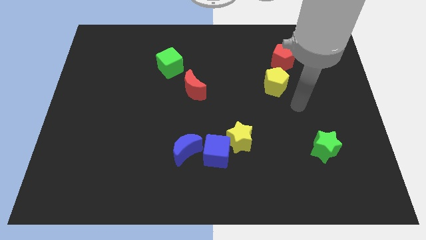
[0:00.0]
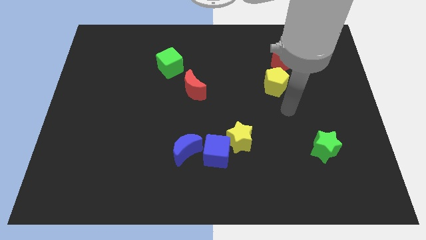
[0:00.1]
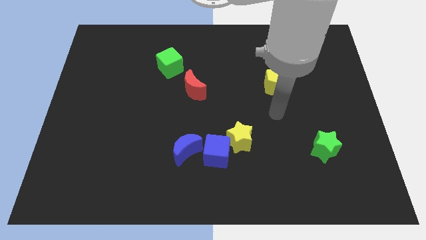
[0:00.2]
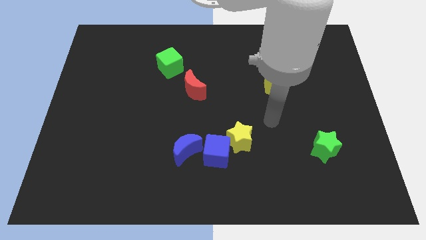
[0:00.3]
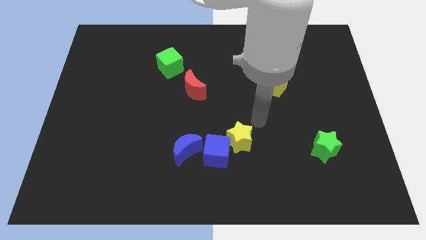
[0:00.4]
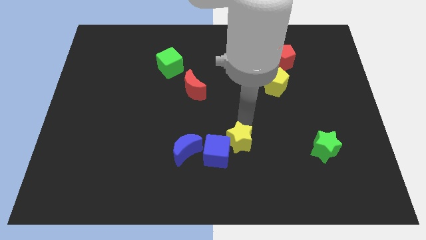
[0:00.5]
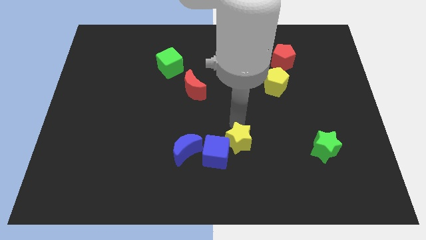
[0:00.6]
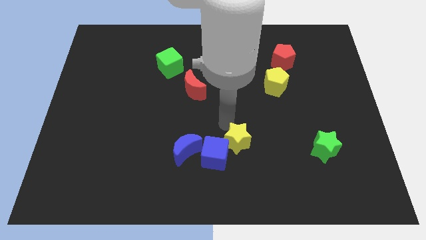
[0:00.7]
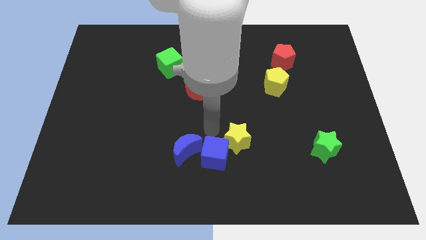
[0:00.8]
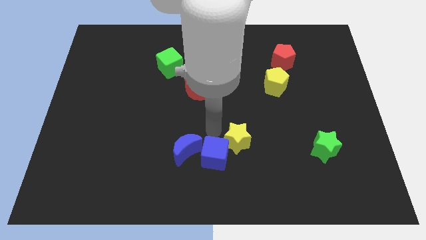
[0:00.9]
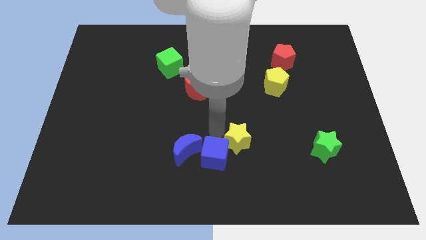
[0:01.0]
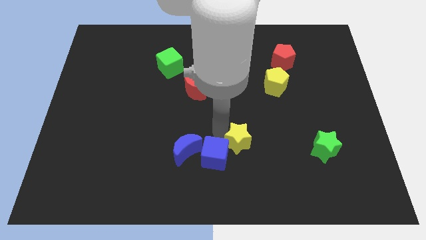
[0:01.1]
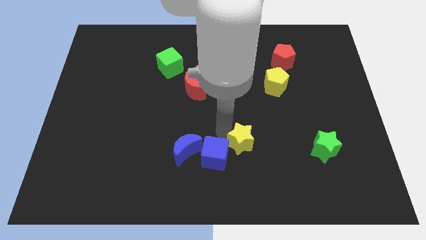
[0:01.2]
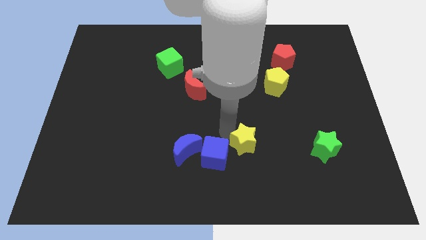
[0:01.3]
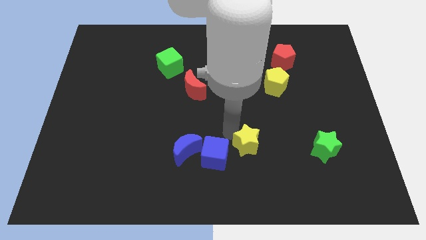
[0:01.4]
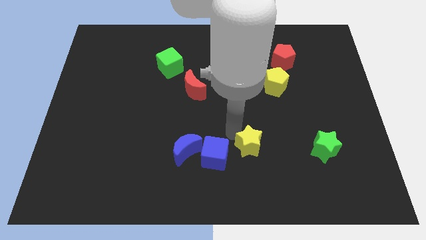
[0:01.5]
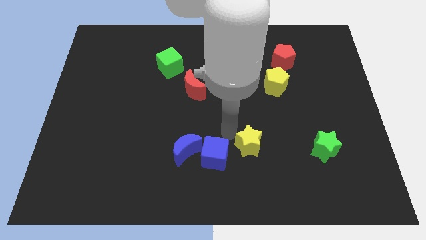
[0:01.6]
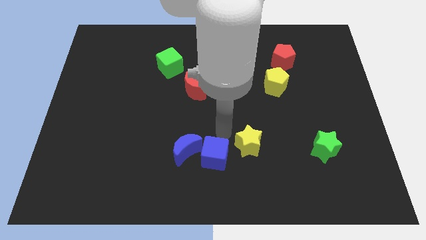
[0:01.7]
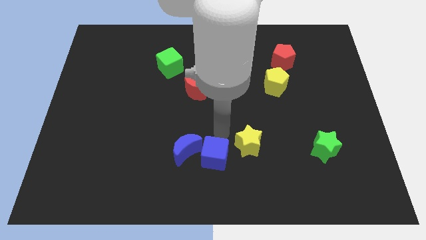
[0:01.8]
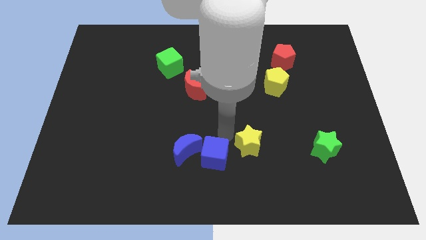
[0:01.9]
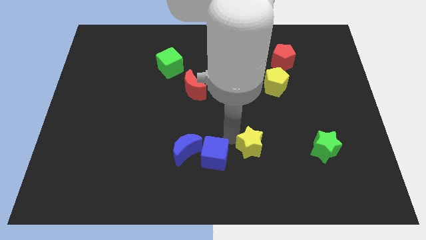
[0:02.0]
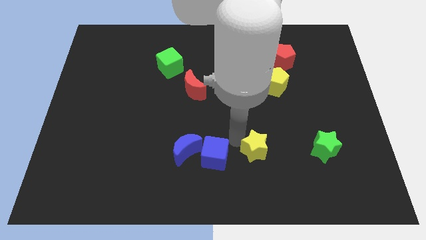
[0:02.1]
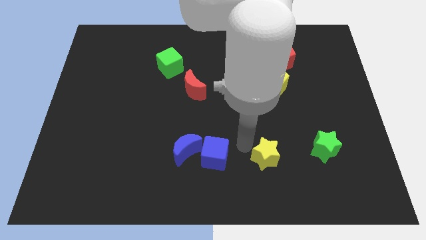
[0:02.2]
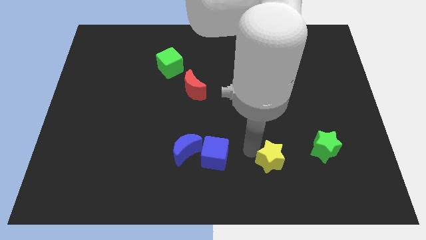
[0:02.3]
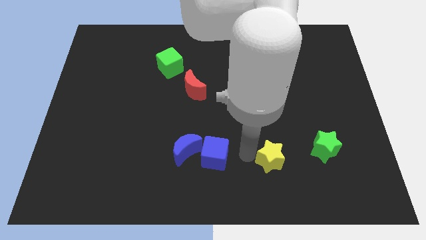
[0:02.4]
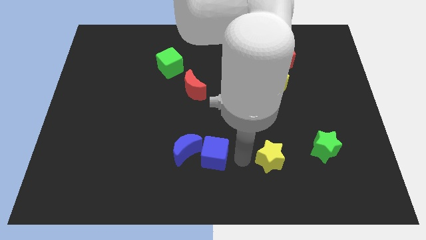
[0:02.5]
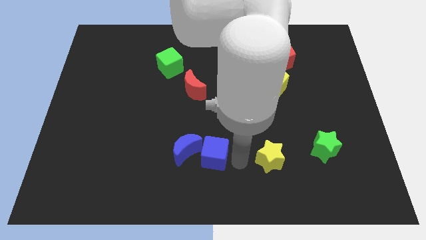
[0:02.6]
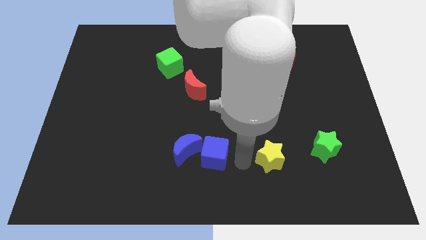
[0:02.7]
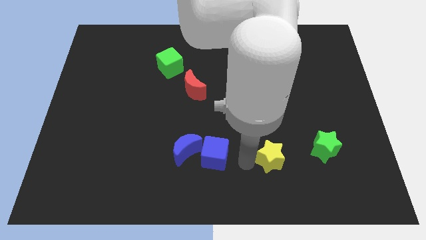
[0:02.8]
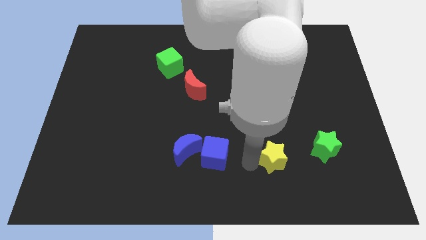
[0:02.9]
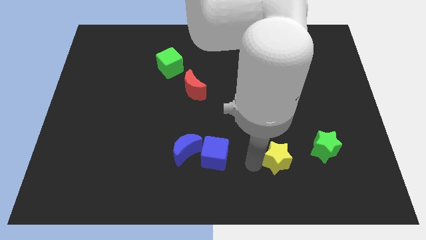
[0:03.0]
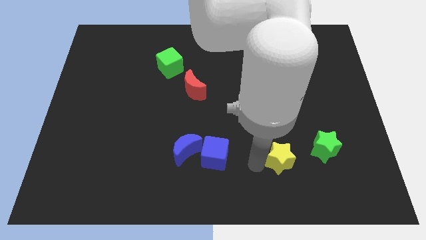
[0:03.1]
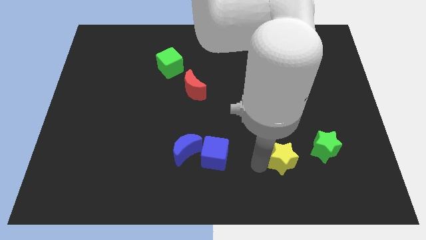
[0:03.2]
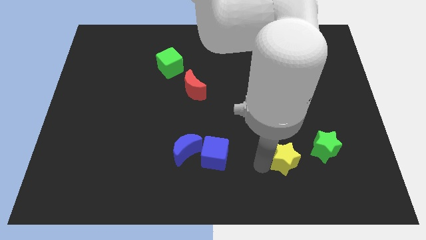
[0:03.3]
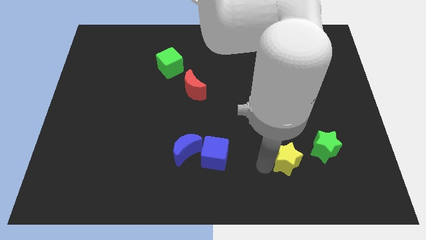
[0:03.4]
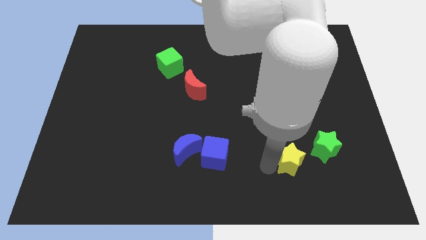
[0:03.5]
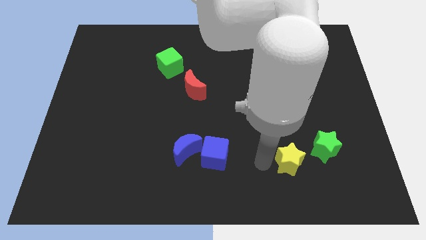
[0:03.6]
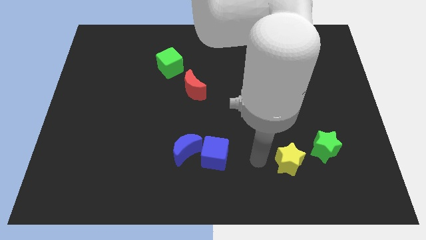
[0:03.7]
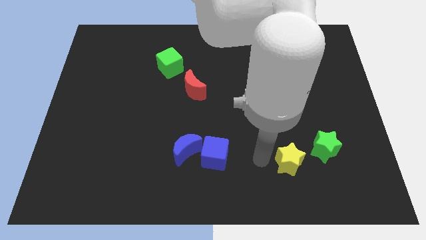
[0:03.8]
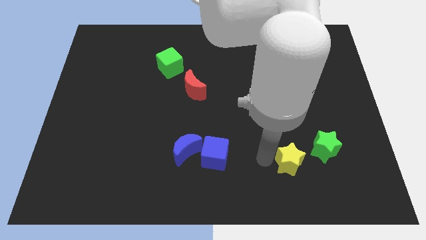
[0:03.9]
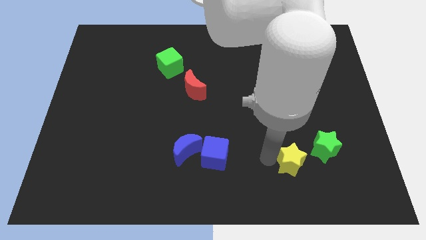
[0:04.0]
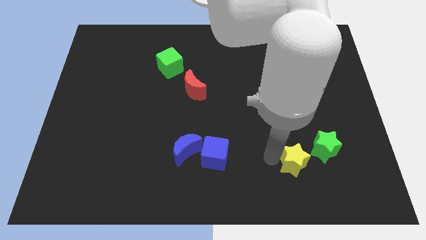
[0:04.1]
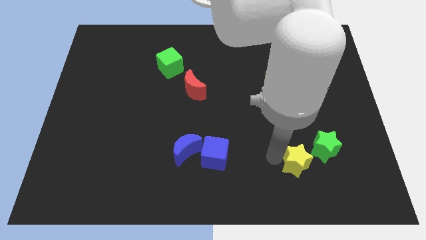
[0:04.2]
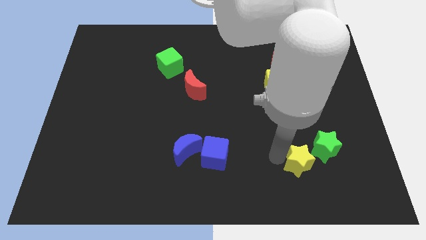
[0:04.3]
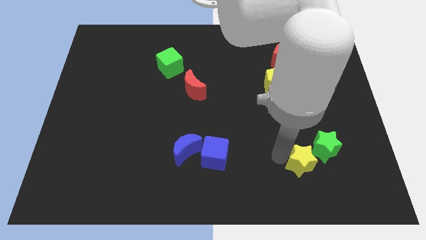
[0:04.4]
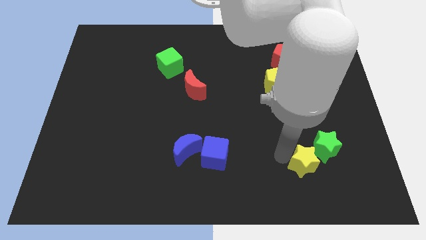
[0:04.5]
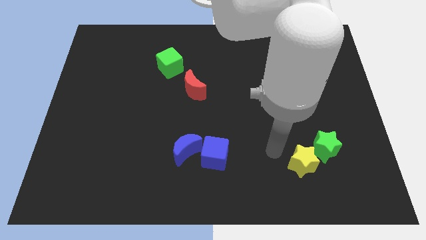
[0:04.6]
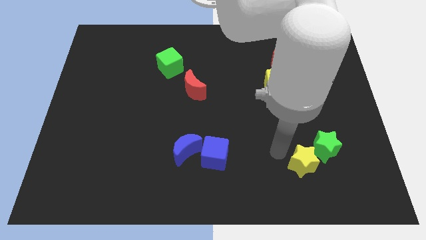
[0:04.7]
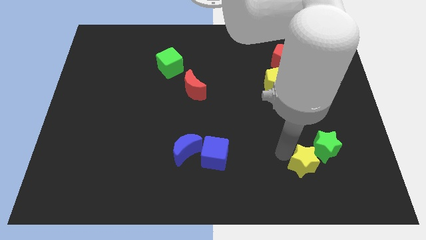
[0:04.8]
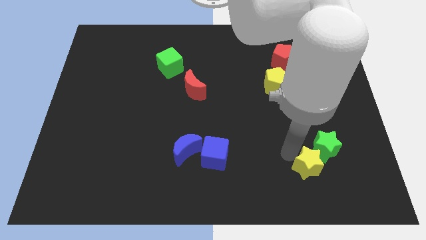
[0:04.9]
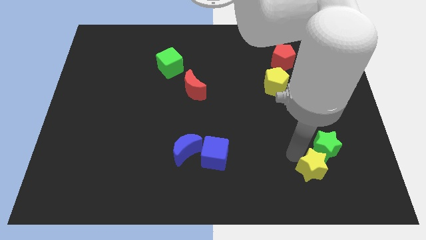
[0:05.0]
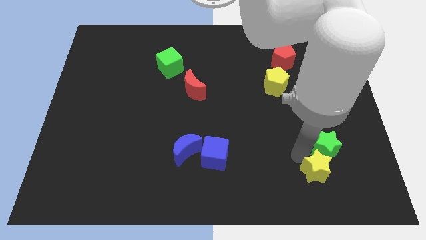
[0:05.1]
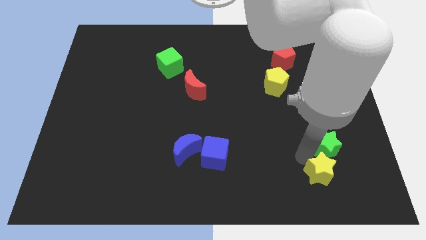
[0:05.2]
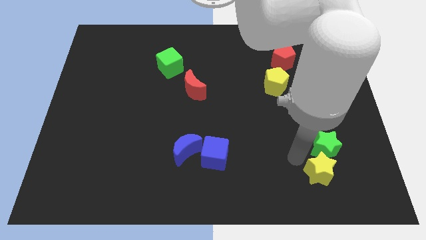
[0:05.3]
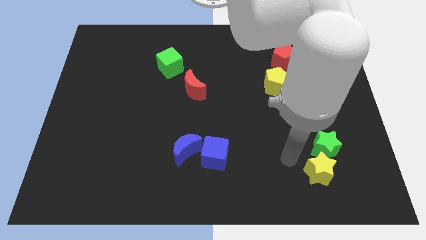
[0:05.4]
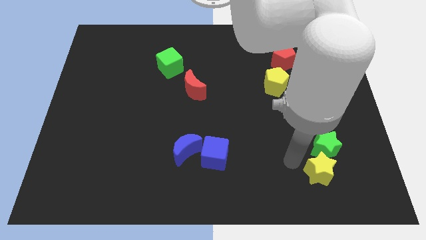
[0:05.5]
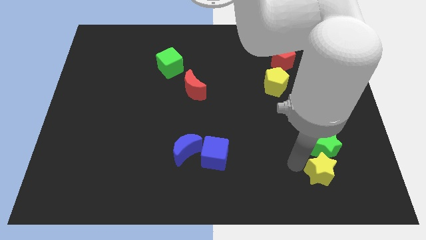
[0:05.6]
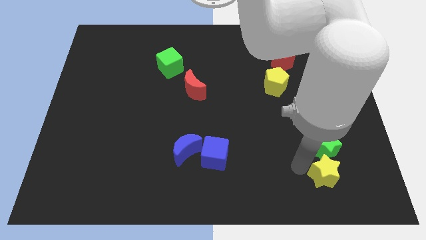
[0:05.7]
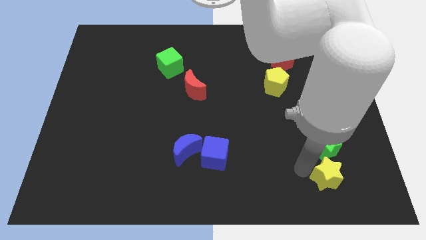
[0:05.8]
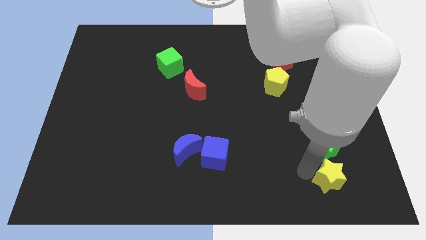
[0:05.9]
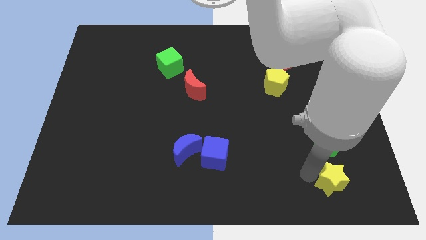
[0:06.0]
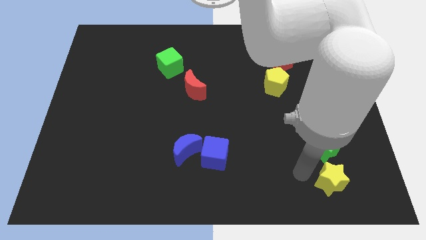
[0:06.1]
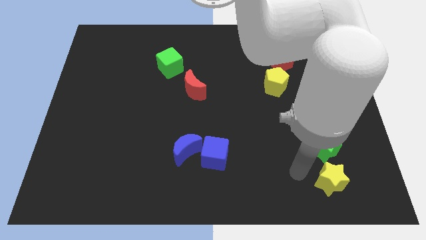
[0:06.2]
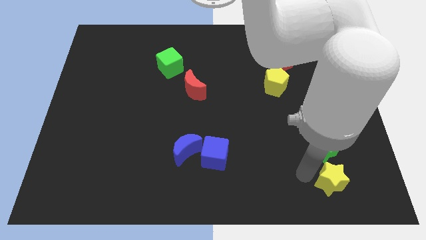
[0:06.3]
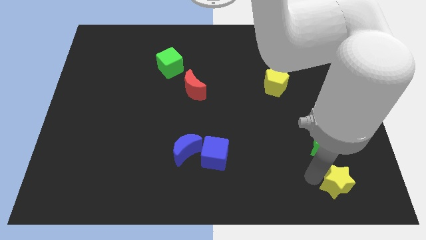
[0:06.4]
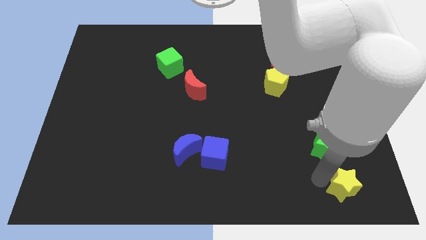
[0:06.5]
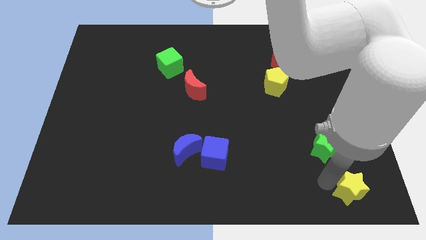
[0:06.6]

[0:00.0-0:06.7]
slide the yellow star to the bottom right of the board
